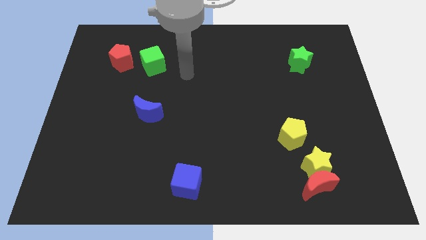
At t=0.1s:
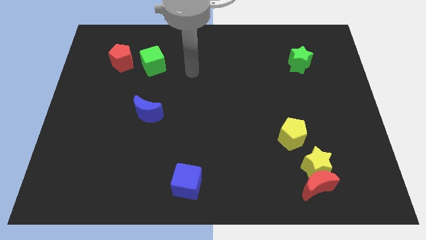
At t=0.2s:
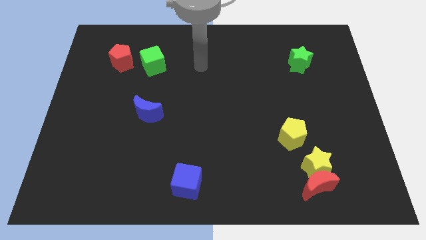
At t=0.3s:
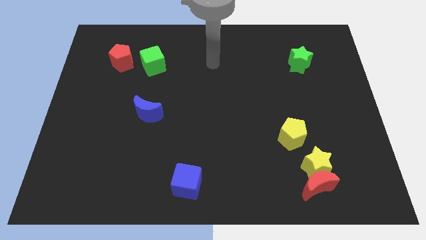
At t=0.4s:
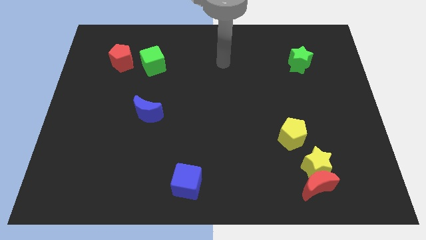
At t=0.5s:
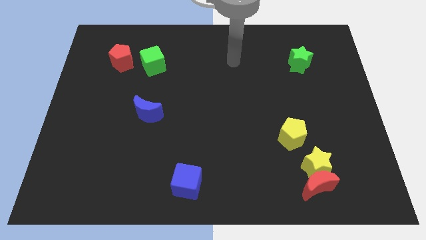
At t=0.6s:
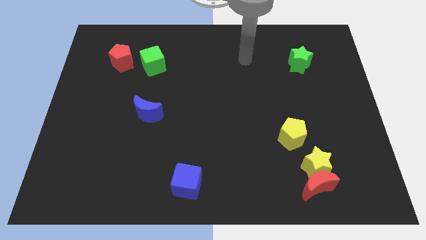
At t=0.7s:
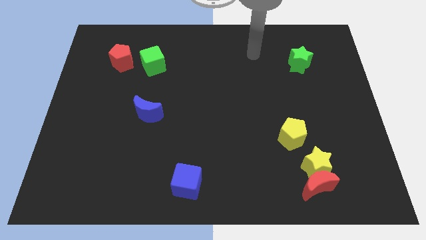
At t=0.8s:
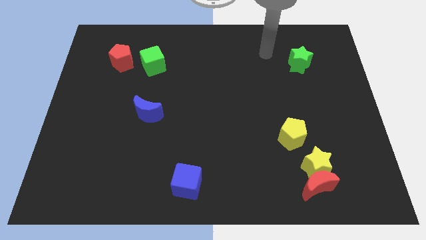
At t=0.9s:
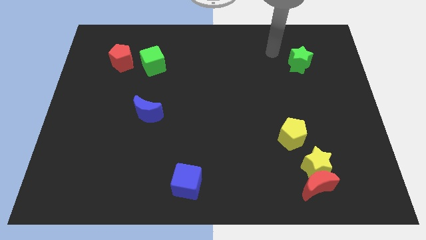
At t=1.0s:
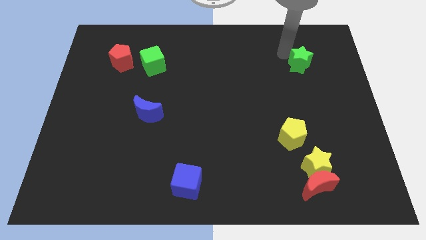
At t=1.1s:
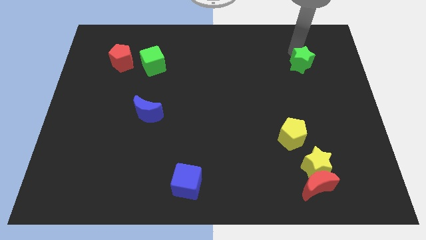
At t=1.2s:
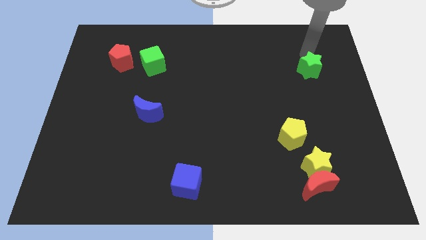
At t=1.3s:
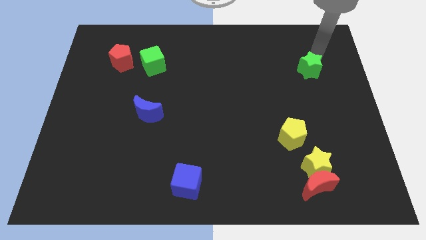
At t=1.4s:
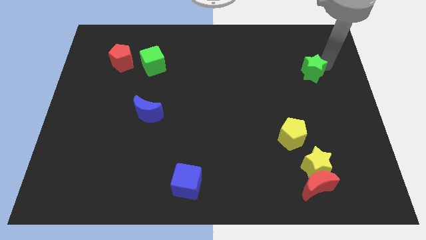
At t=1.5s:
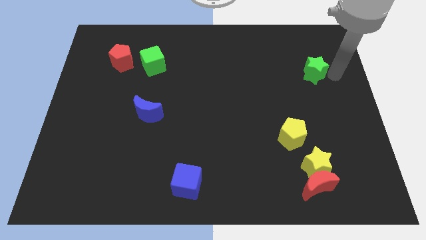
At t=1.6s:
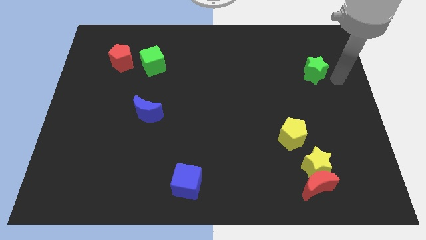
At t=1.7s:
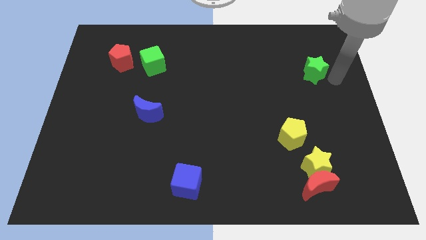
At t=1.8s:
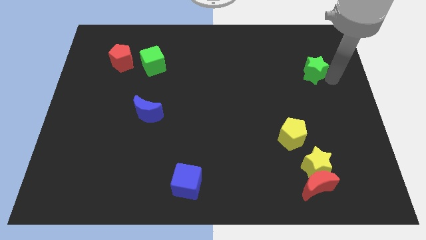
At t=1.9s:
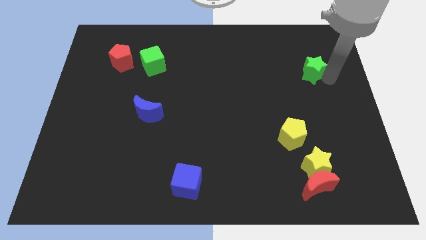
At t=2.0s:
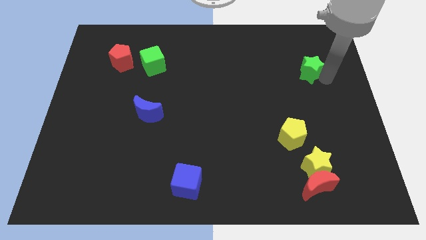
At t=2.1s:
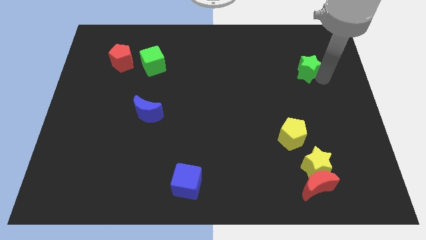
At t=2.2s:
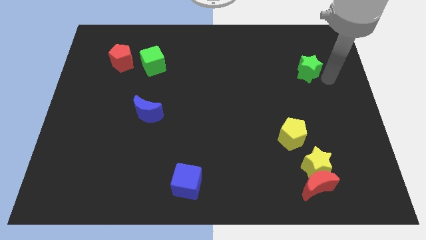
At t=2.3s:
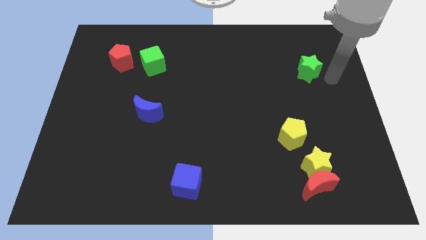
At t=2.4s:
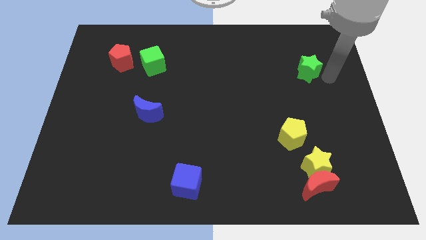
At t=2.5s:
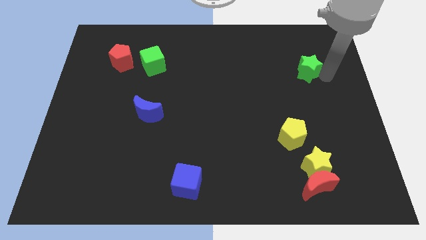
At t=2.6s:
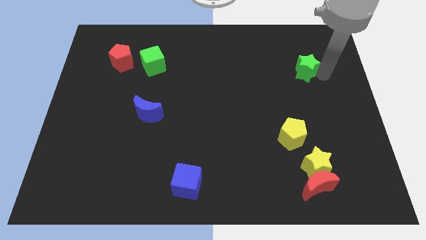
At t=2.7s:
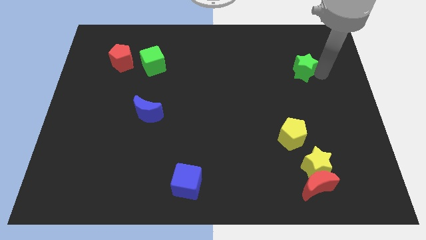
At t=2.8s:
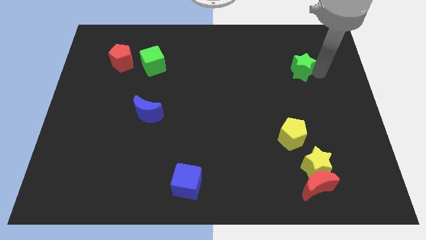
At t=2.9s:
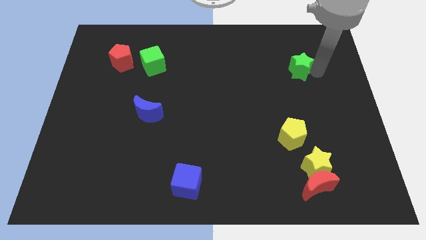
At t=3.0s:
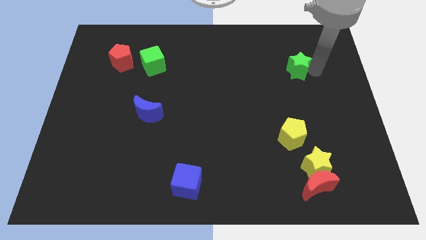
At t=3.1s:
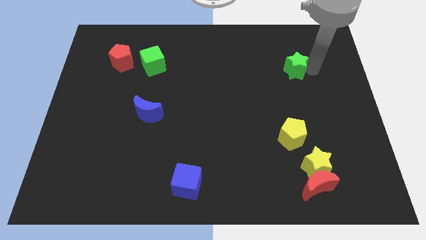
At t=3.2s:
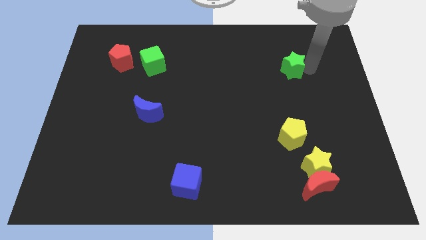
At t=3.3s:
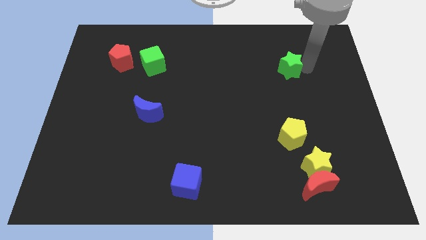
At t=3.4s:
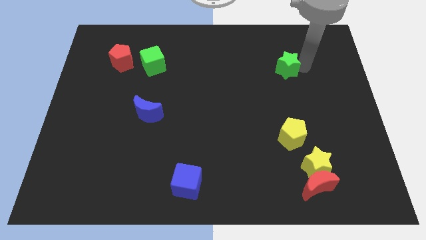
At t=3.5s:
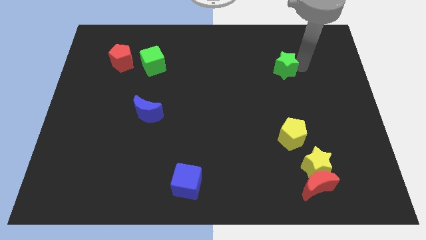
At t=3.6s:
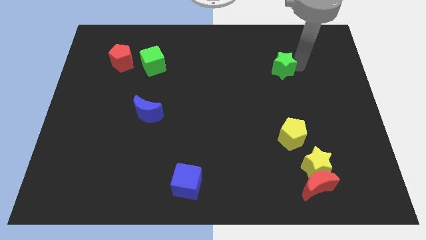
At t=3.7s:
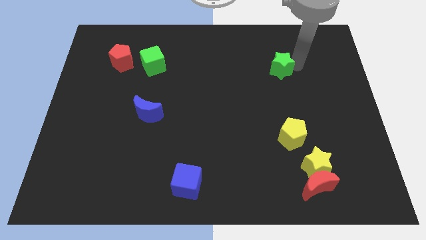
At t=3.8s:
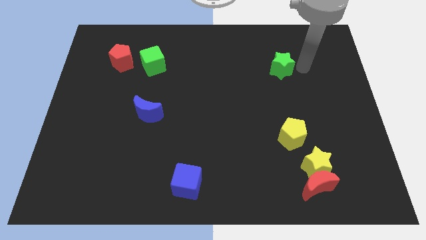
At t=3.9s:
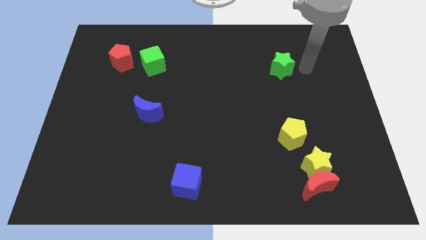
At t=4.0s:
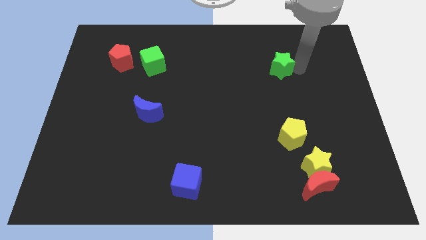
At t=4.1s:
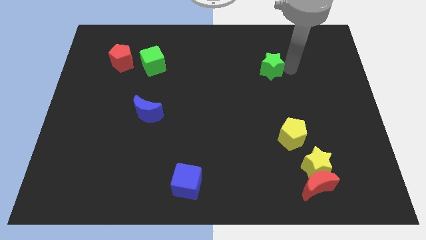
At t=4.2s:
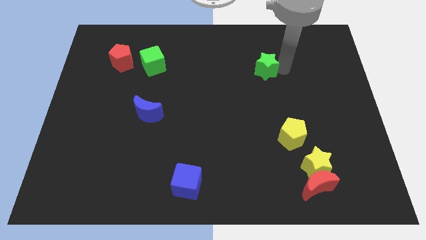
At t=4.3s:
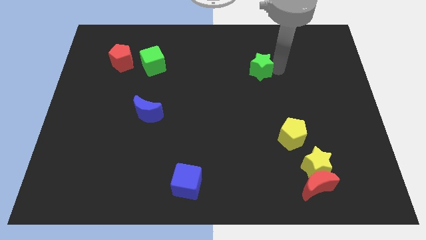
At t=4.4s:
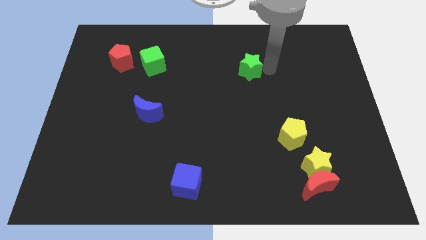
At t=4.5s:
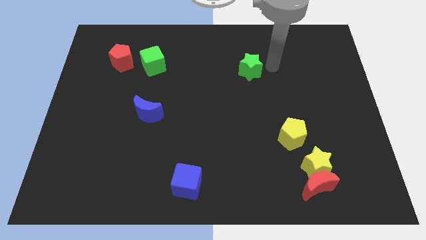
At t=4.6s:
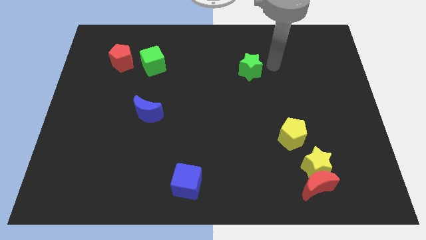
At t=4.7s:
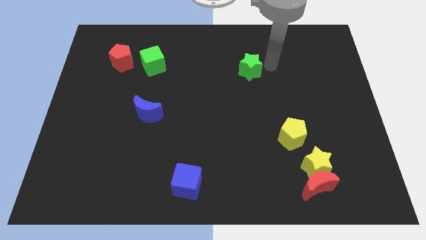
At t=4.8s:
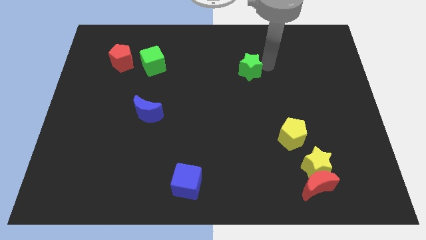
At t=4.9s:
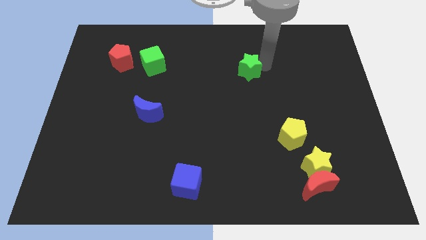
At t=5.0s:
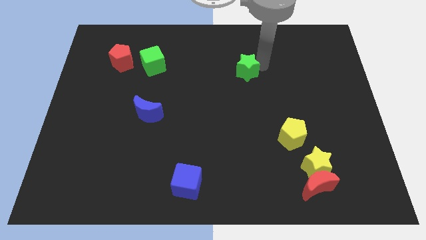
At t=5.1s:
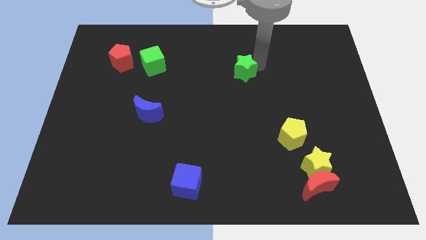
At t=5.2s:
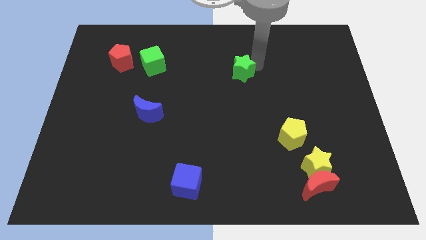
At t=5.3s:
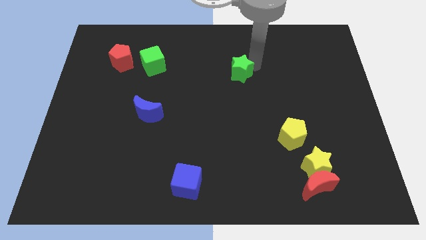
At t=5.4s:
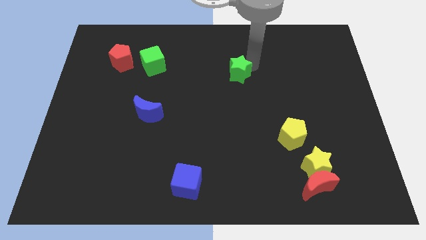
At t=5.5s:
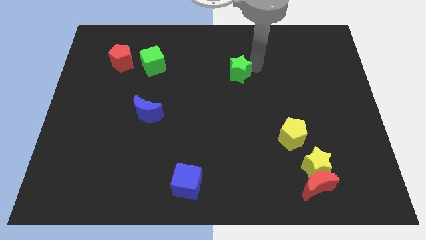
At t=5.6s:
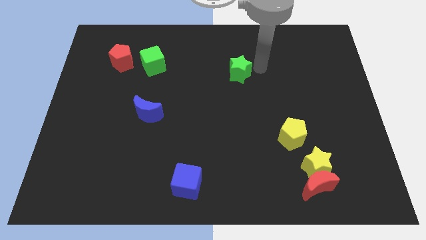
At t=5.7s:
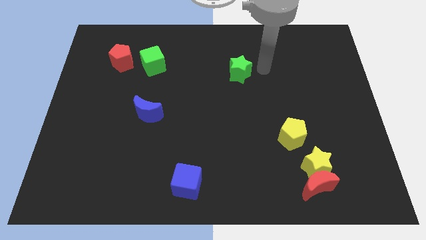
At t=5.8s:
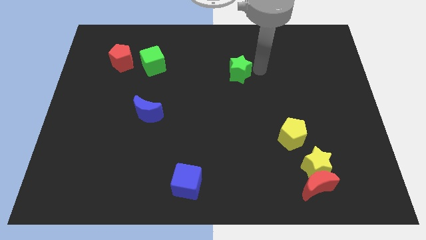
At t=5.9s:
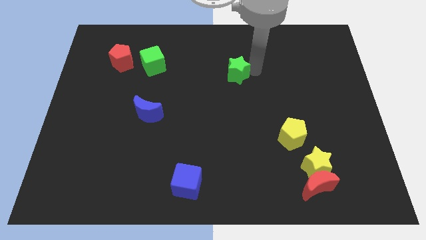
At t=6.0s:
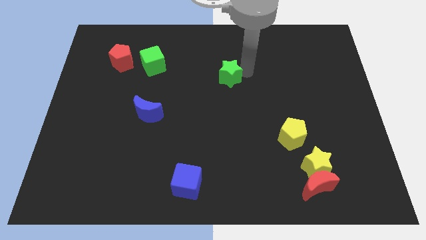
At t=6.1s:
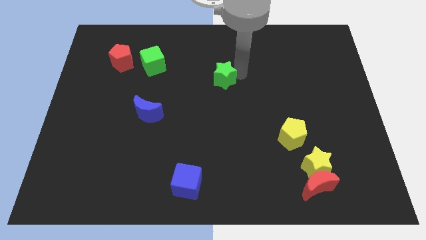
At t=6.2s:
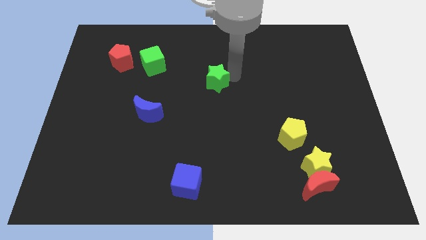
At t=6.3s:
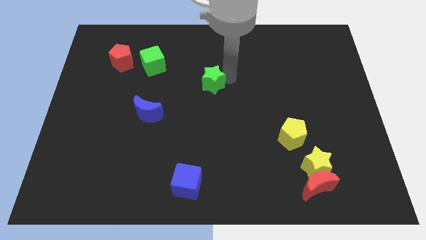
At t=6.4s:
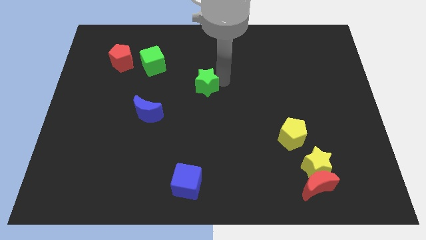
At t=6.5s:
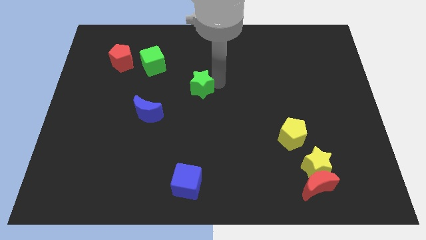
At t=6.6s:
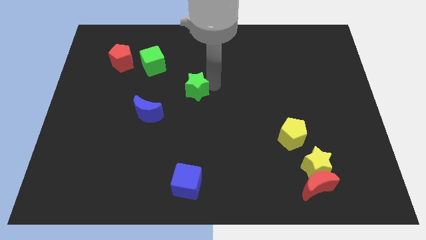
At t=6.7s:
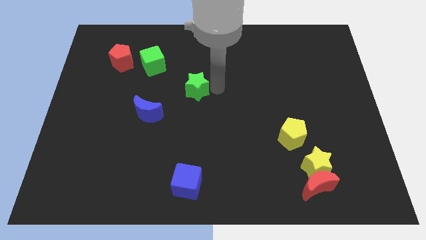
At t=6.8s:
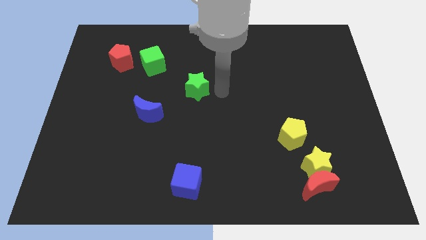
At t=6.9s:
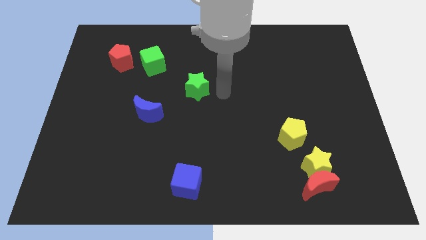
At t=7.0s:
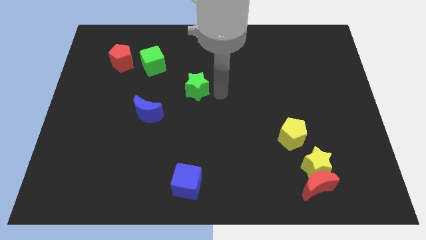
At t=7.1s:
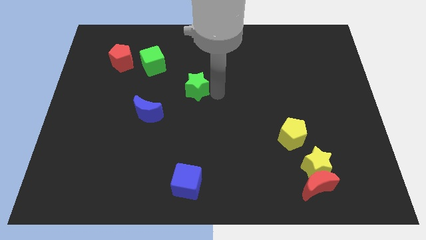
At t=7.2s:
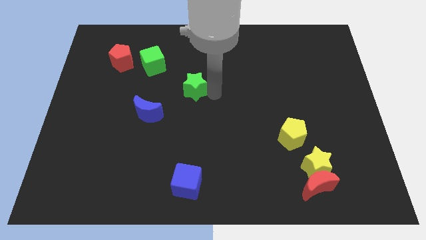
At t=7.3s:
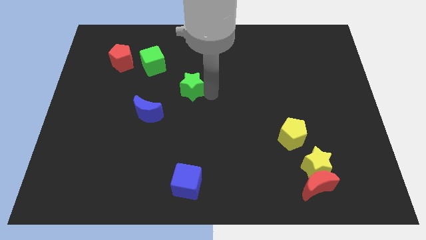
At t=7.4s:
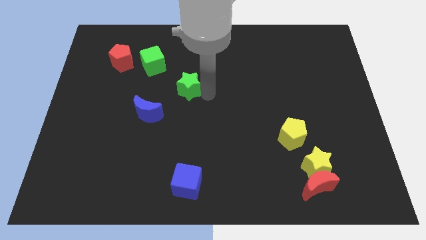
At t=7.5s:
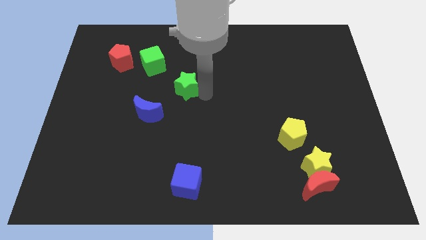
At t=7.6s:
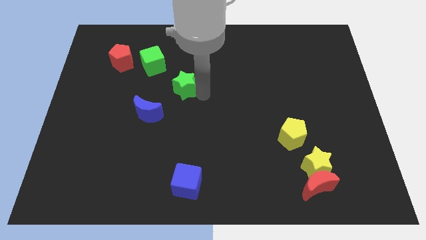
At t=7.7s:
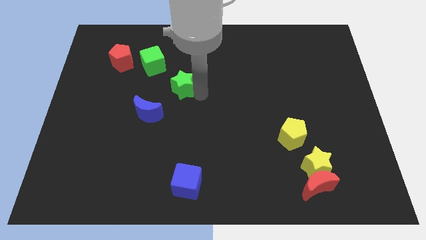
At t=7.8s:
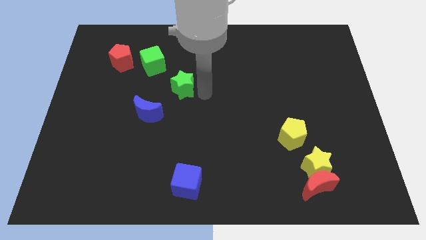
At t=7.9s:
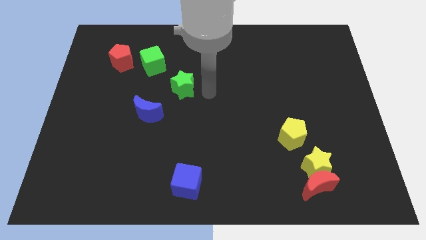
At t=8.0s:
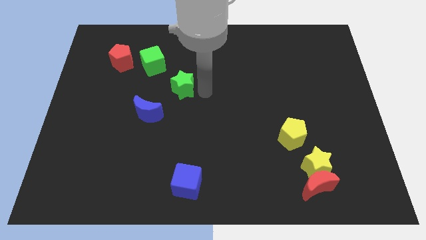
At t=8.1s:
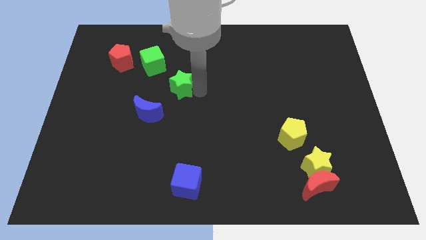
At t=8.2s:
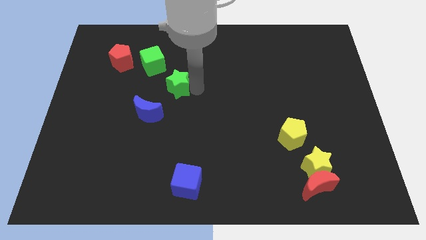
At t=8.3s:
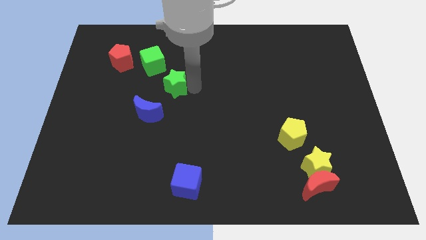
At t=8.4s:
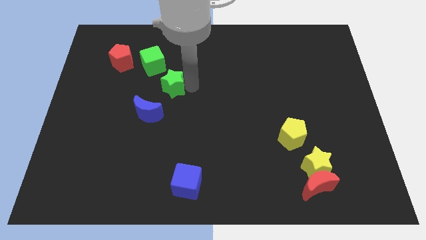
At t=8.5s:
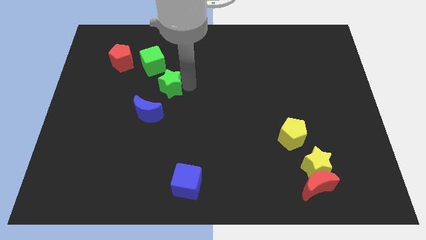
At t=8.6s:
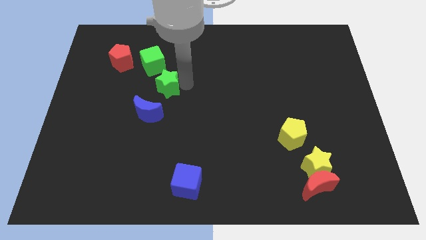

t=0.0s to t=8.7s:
put the green star below the green cube
